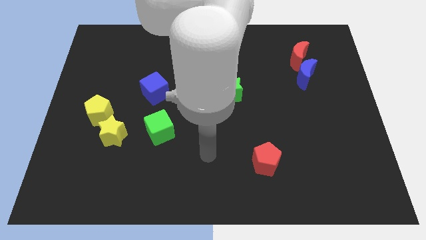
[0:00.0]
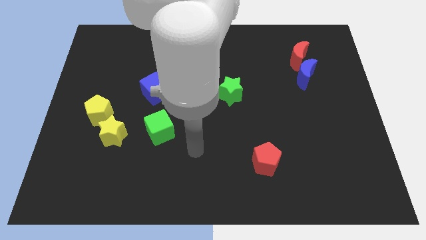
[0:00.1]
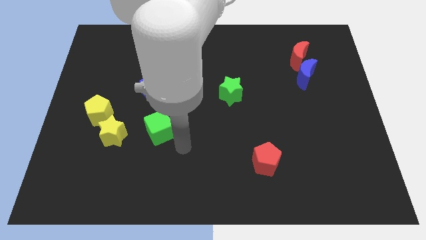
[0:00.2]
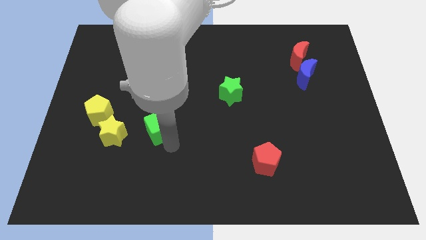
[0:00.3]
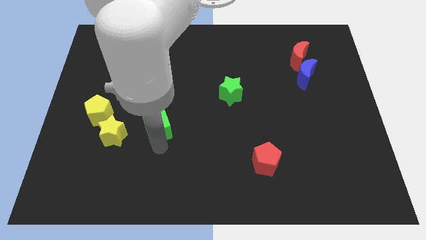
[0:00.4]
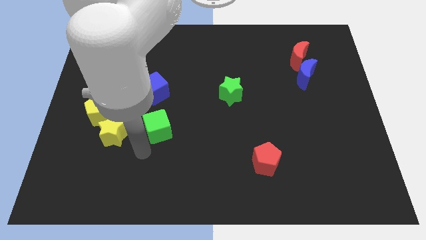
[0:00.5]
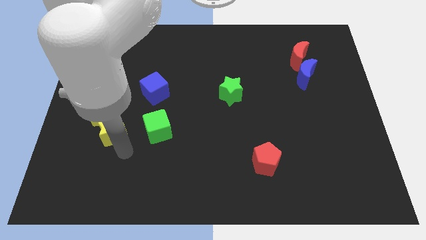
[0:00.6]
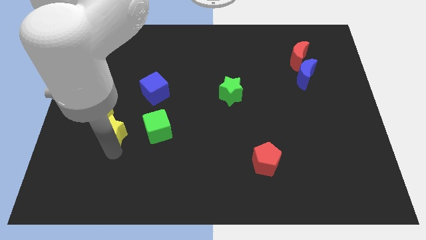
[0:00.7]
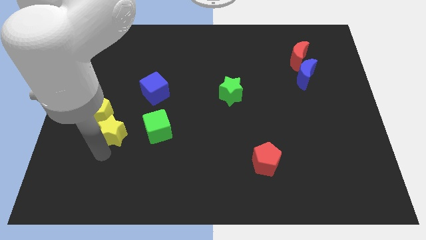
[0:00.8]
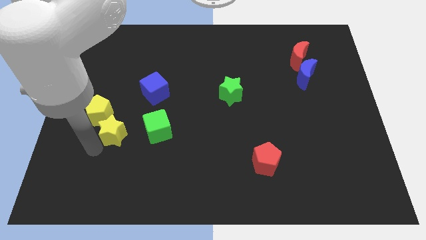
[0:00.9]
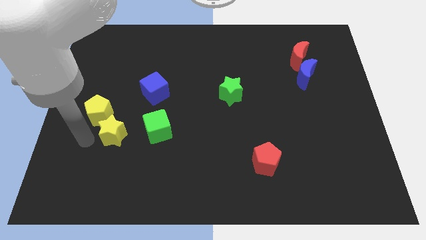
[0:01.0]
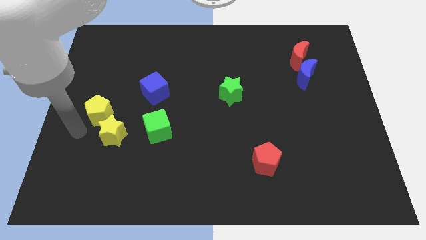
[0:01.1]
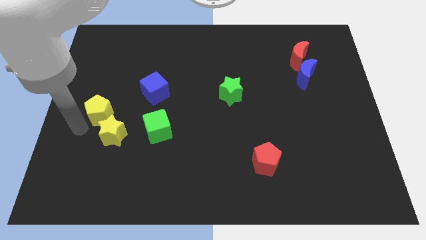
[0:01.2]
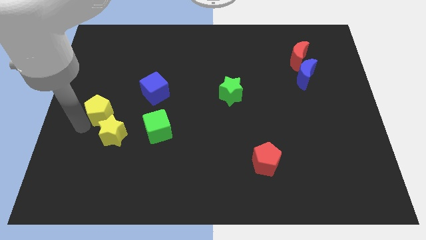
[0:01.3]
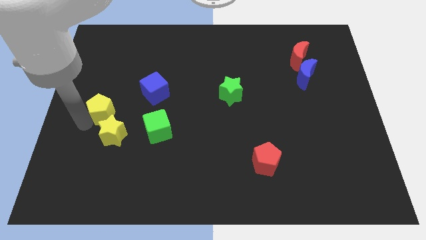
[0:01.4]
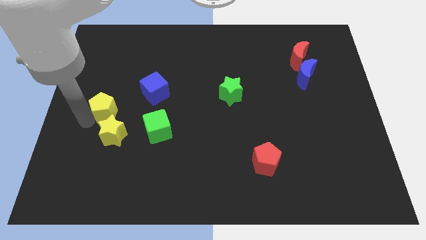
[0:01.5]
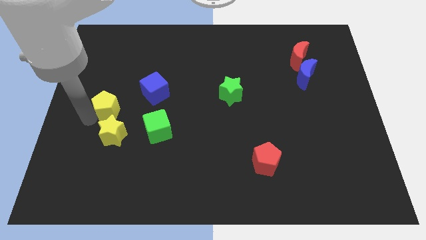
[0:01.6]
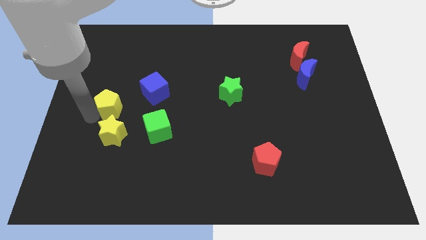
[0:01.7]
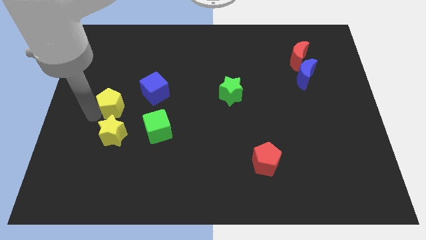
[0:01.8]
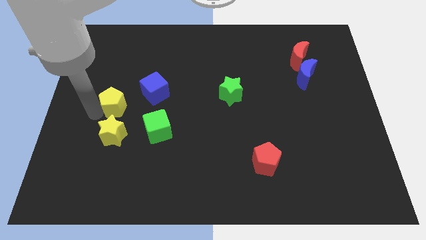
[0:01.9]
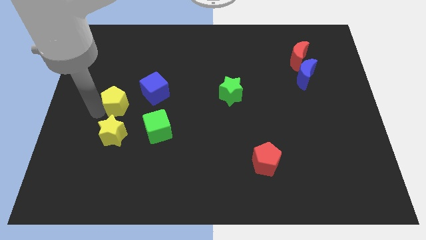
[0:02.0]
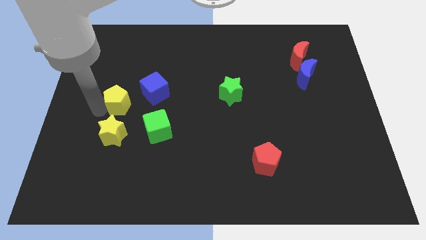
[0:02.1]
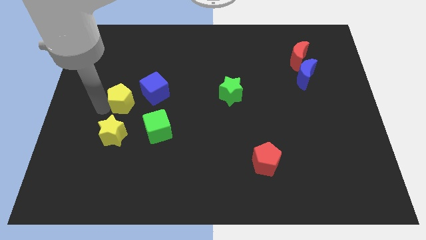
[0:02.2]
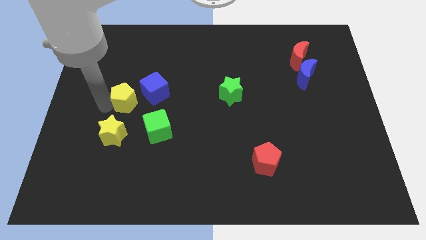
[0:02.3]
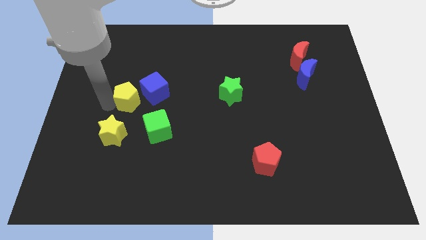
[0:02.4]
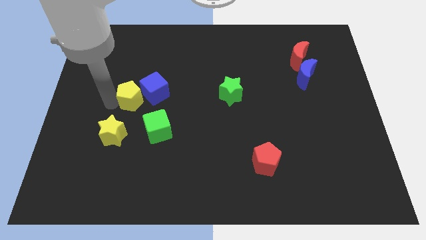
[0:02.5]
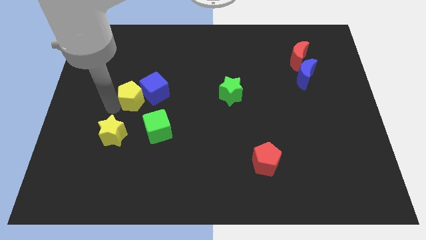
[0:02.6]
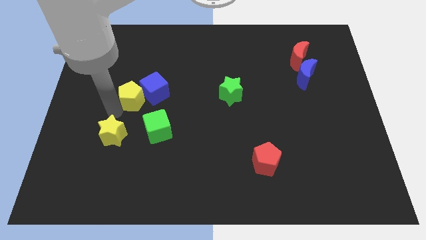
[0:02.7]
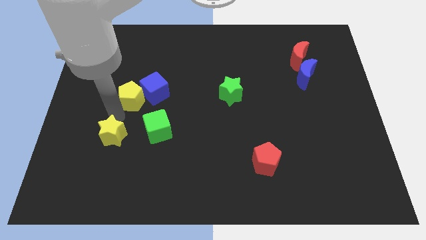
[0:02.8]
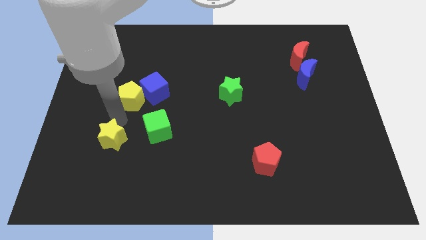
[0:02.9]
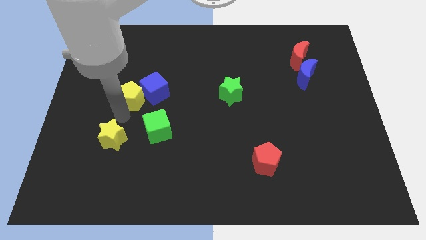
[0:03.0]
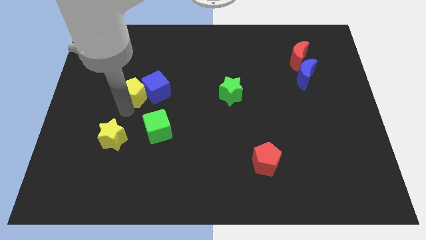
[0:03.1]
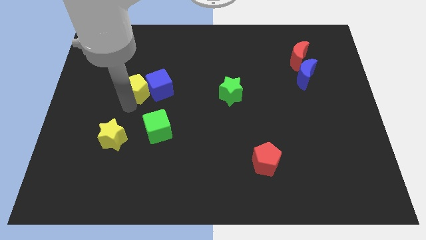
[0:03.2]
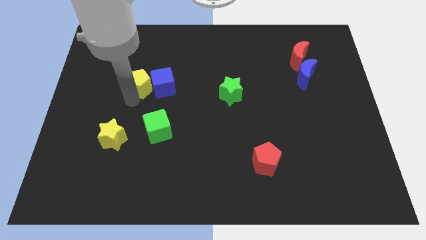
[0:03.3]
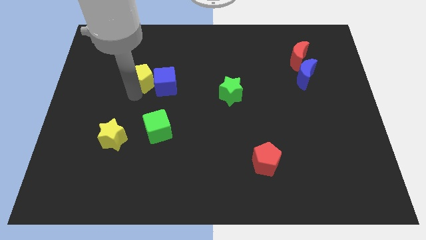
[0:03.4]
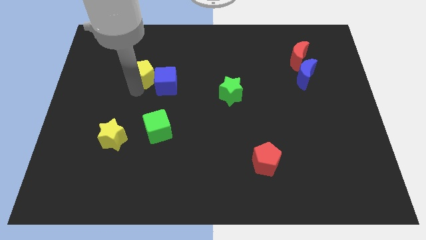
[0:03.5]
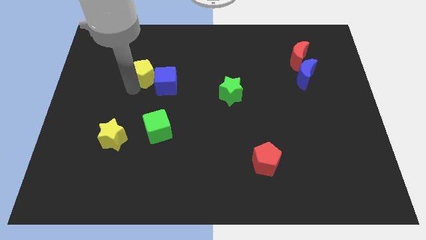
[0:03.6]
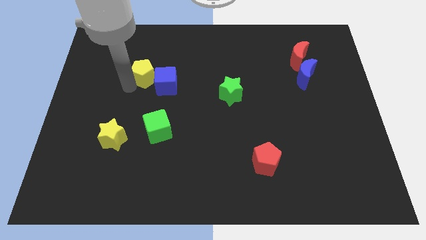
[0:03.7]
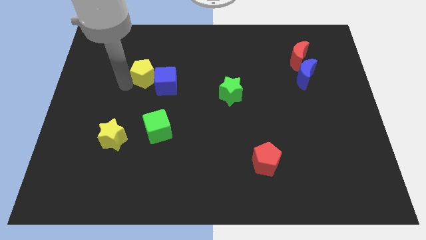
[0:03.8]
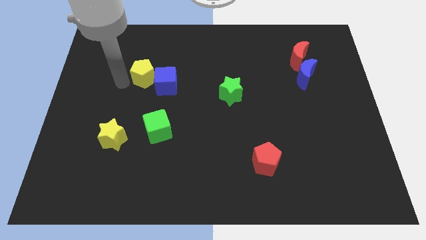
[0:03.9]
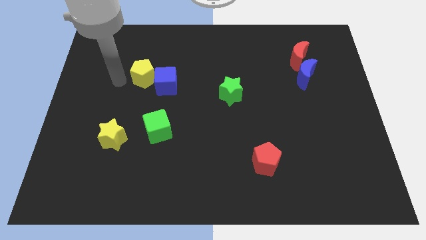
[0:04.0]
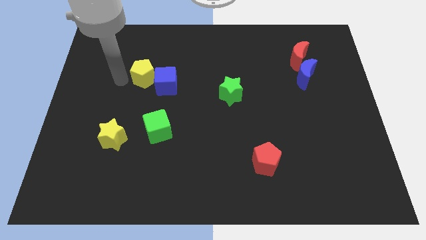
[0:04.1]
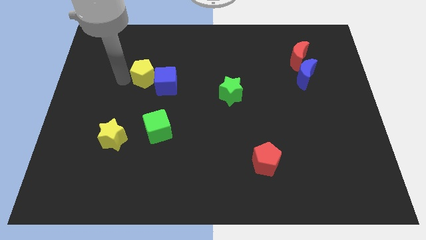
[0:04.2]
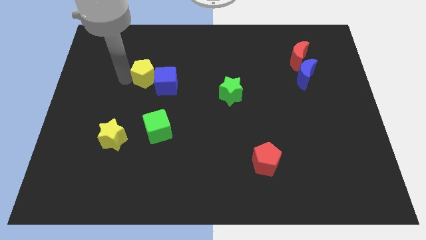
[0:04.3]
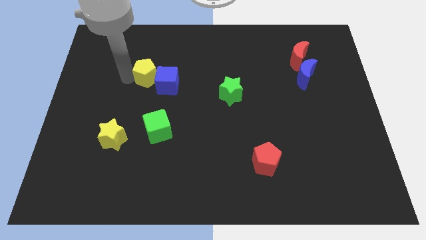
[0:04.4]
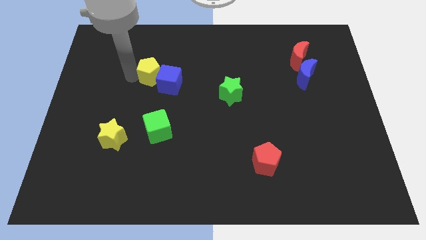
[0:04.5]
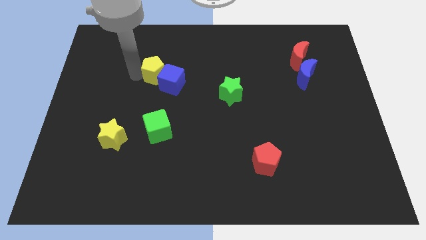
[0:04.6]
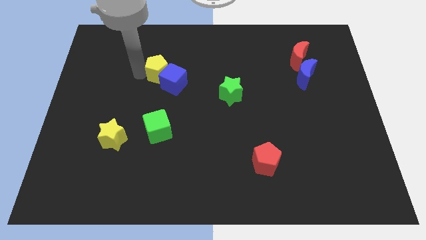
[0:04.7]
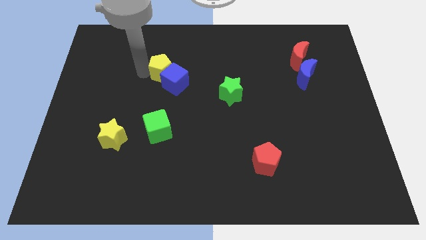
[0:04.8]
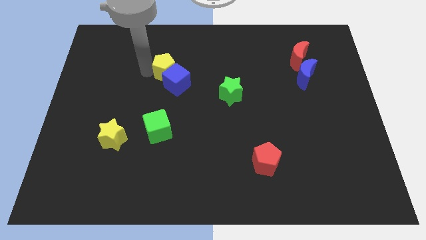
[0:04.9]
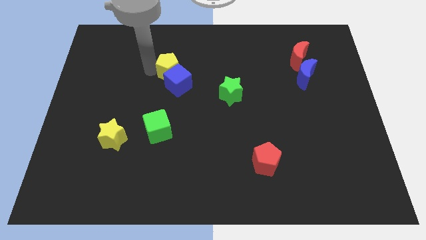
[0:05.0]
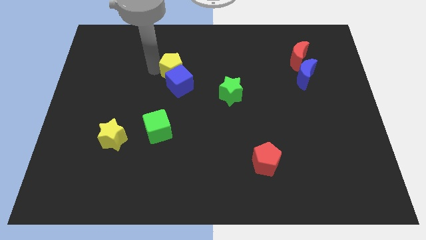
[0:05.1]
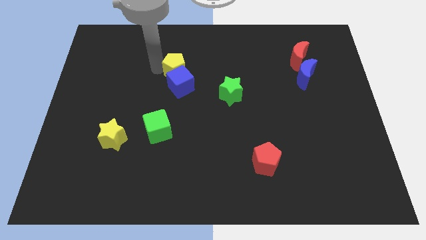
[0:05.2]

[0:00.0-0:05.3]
push the yellow pentagon diagonally up and to the right of the blue cube

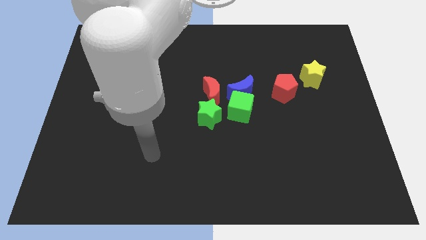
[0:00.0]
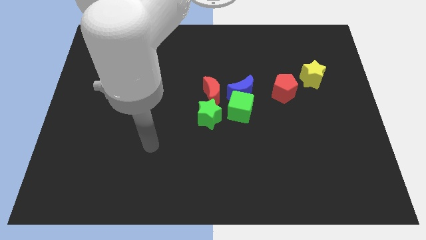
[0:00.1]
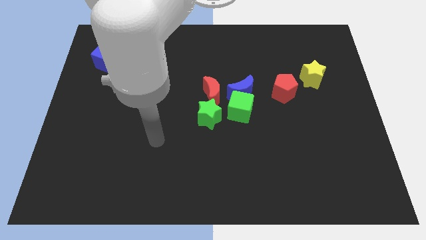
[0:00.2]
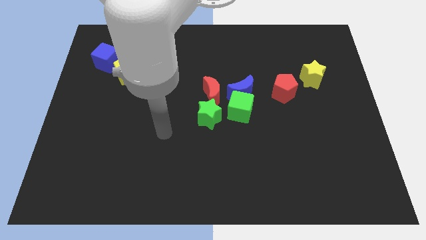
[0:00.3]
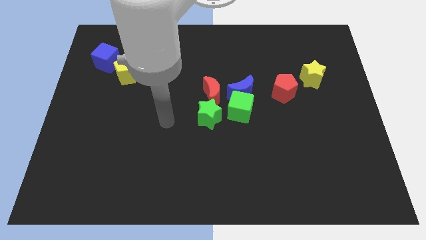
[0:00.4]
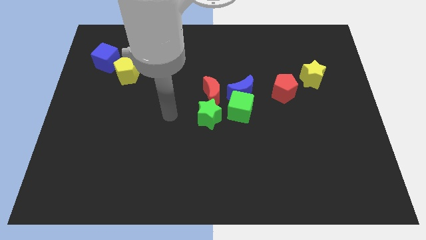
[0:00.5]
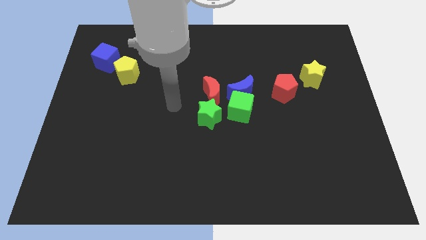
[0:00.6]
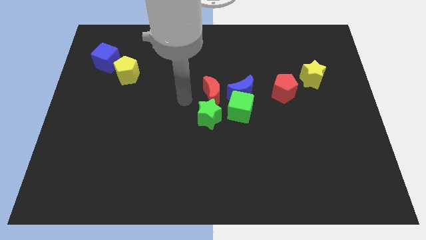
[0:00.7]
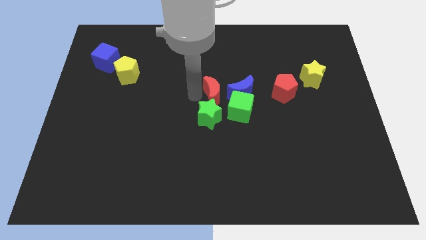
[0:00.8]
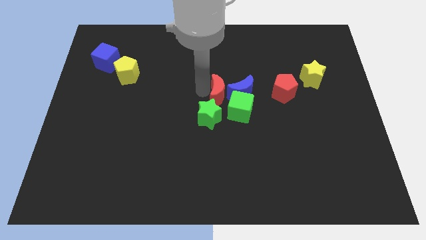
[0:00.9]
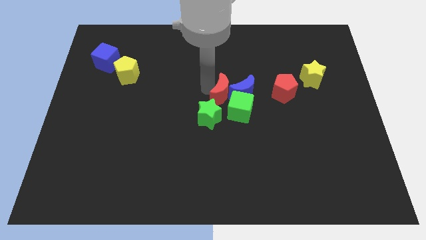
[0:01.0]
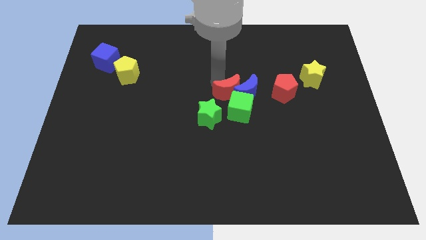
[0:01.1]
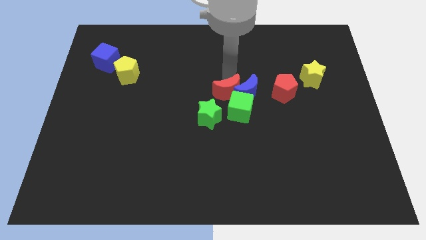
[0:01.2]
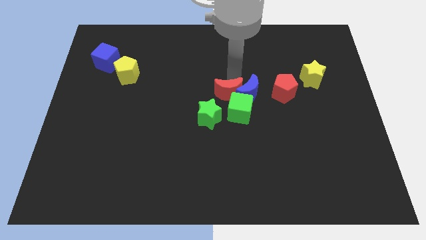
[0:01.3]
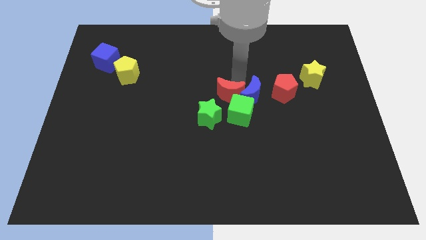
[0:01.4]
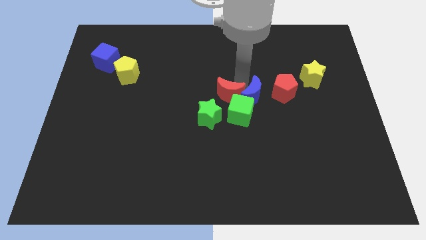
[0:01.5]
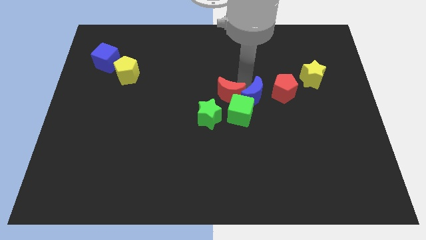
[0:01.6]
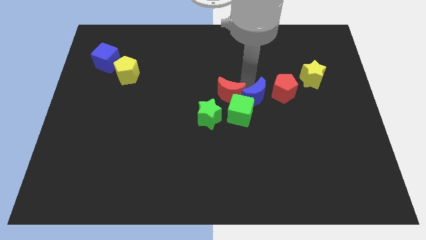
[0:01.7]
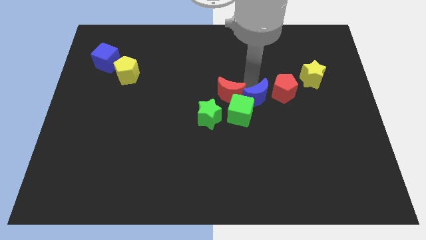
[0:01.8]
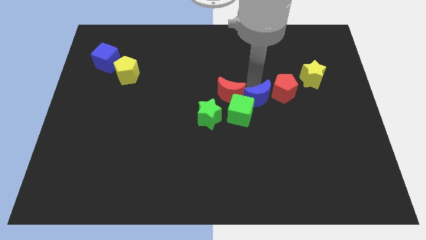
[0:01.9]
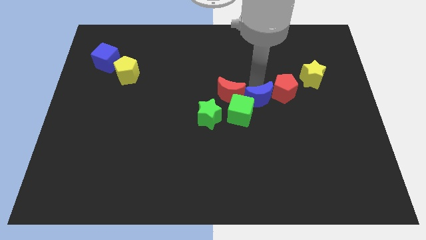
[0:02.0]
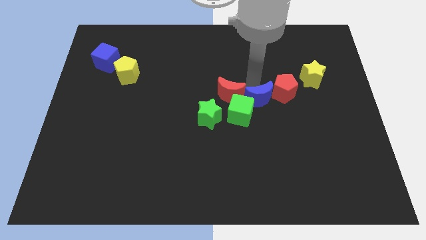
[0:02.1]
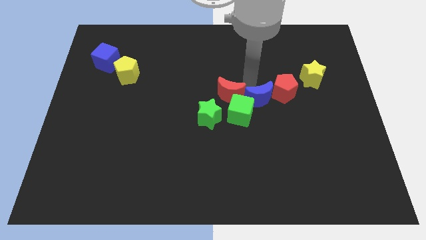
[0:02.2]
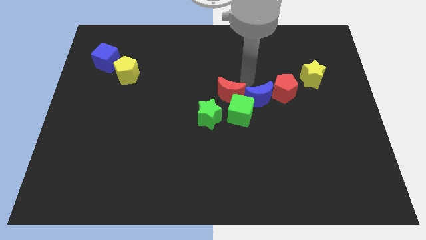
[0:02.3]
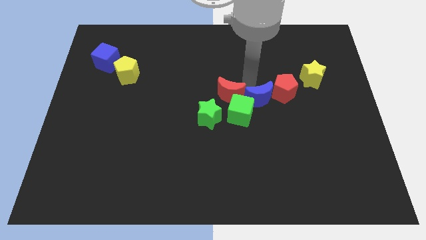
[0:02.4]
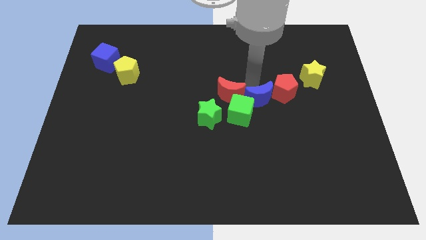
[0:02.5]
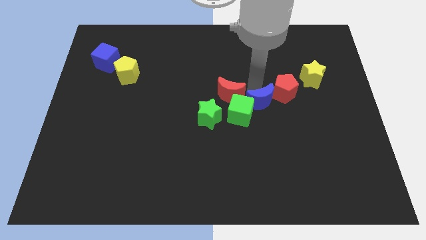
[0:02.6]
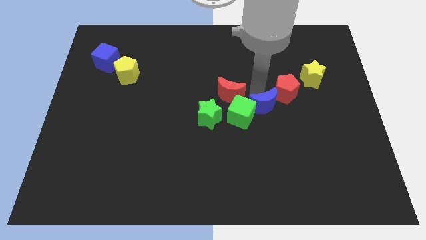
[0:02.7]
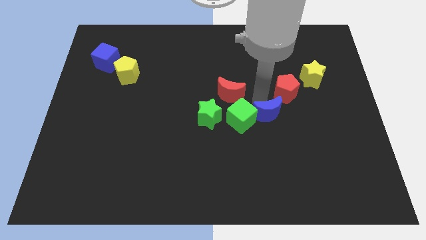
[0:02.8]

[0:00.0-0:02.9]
slide the blue moon to the bottom side of the red pentagon
